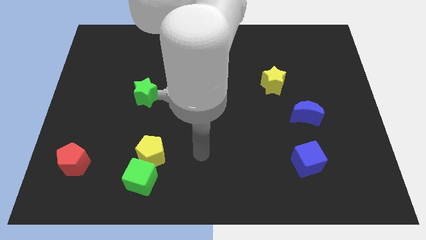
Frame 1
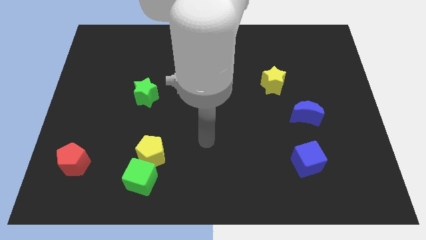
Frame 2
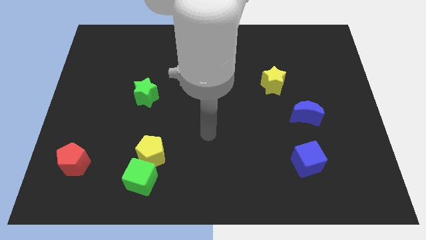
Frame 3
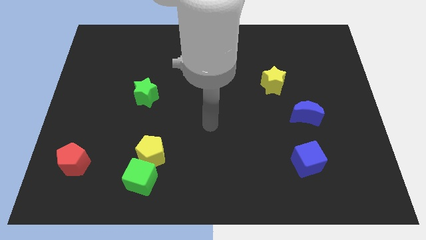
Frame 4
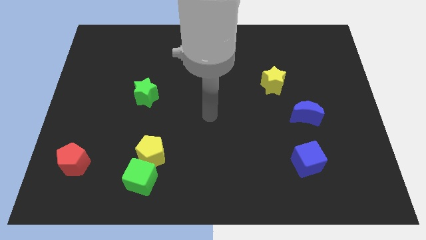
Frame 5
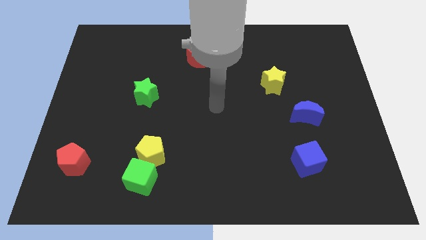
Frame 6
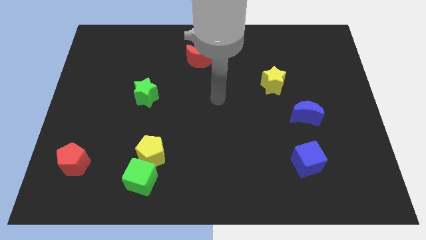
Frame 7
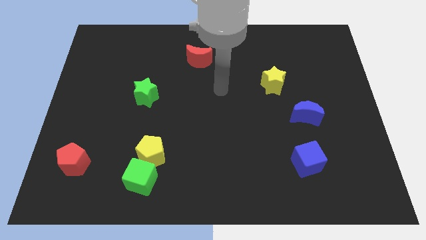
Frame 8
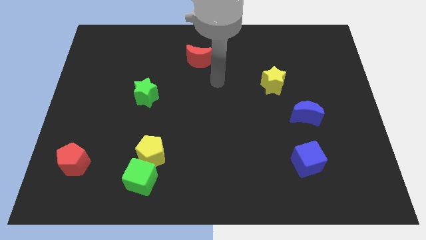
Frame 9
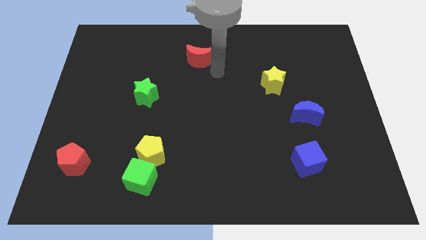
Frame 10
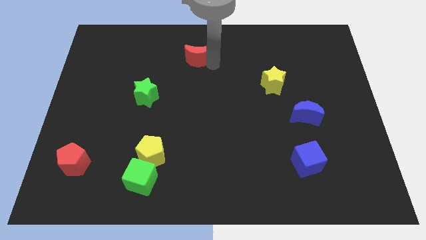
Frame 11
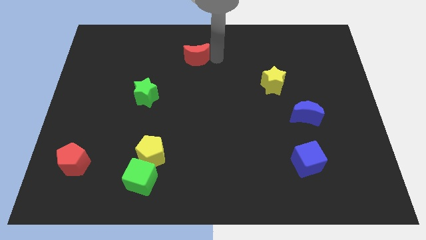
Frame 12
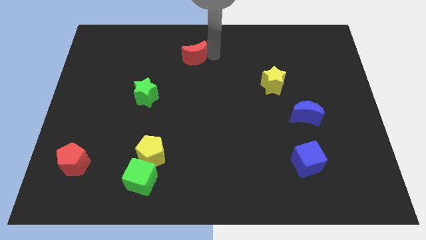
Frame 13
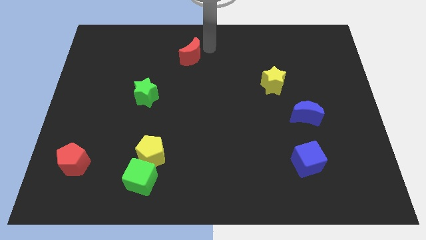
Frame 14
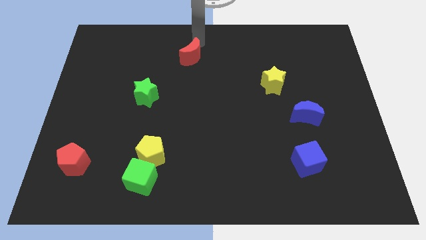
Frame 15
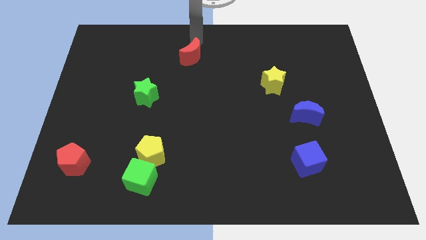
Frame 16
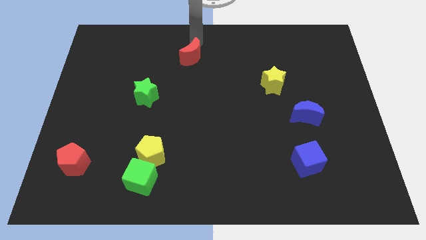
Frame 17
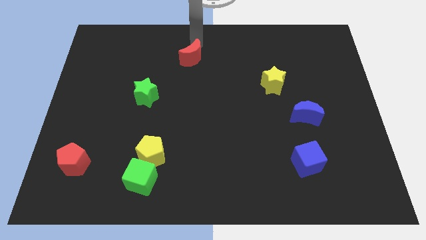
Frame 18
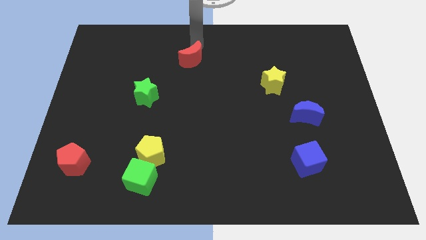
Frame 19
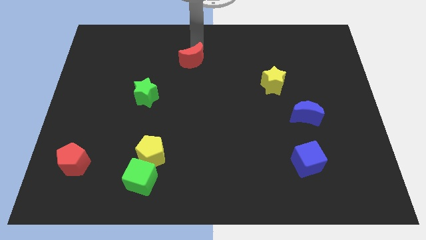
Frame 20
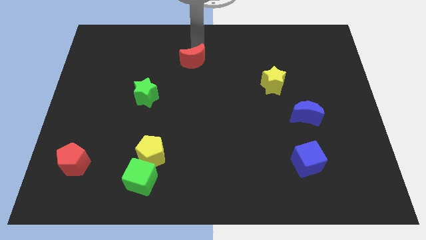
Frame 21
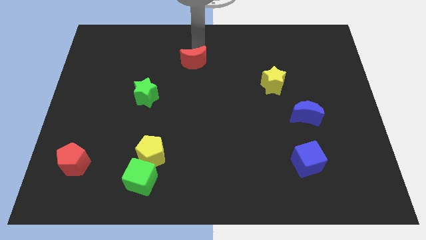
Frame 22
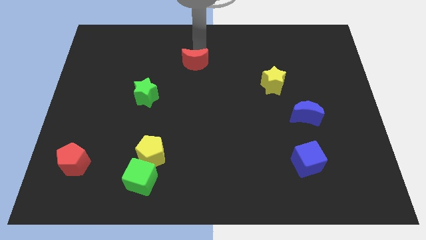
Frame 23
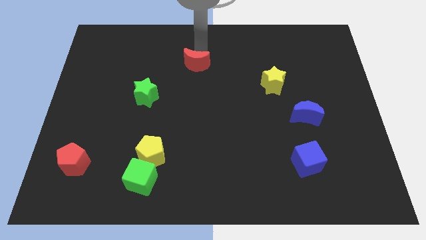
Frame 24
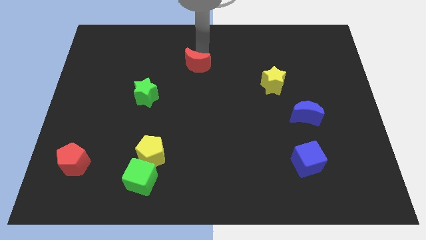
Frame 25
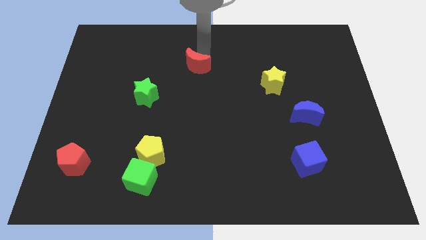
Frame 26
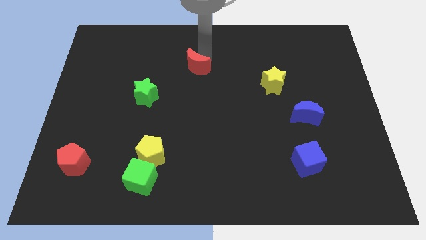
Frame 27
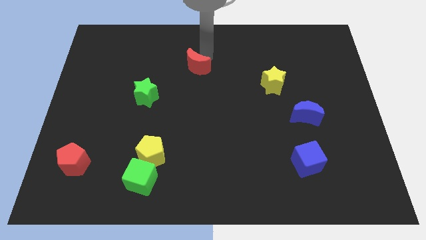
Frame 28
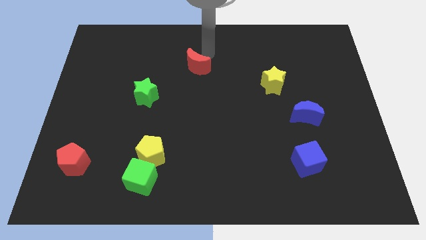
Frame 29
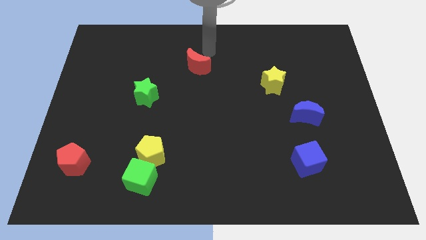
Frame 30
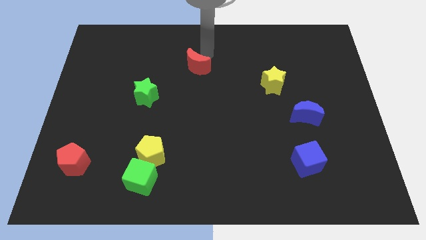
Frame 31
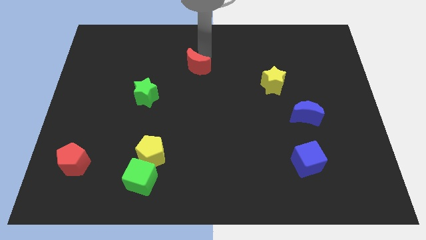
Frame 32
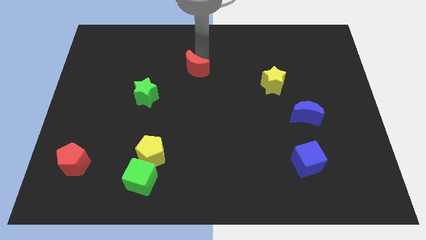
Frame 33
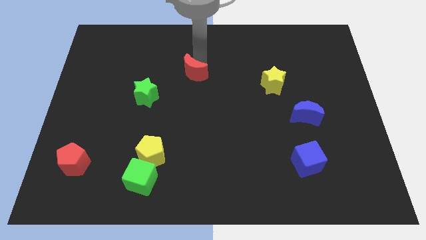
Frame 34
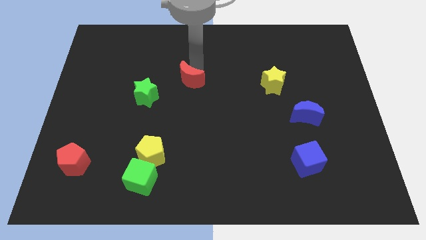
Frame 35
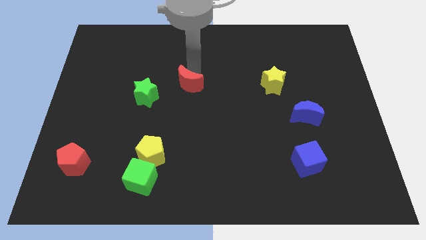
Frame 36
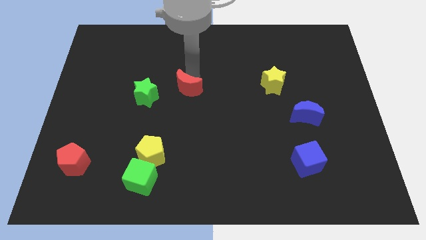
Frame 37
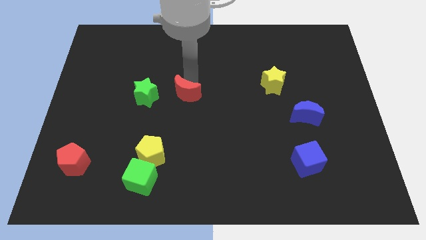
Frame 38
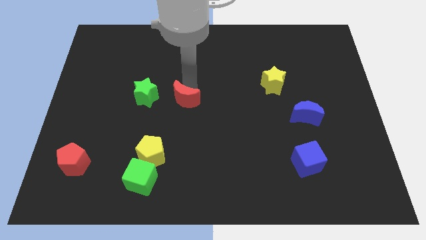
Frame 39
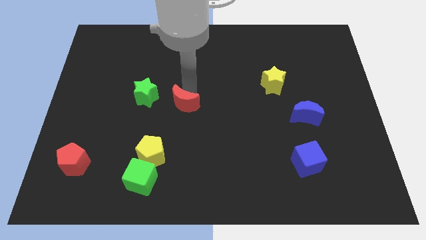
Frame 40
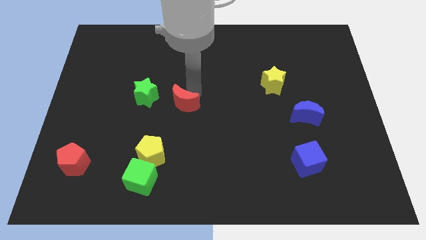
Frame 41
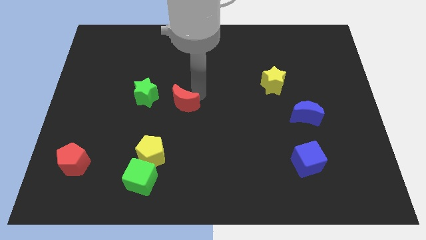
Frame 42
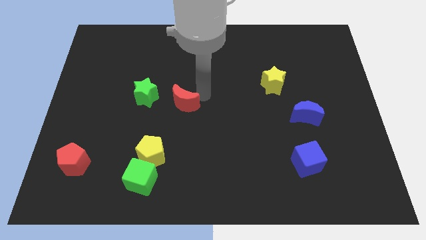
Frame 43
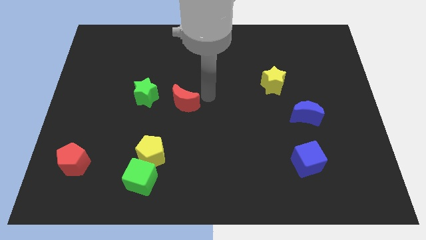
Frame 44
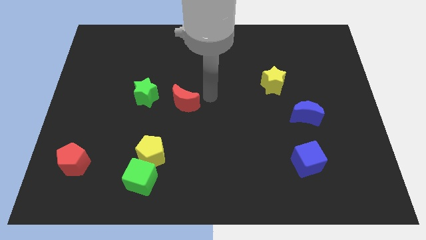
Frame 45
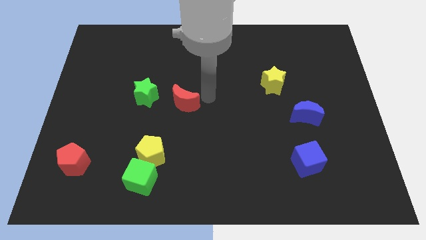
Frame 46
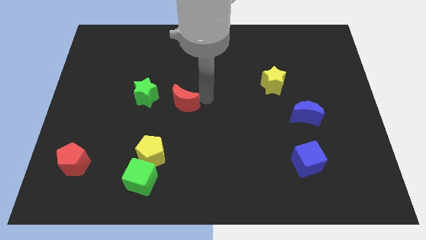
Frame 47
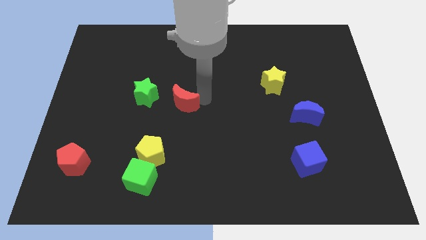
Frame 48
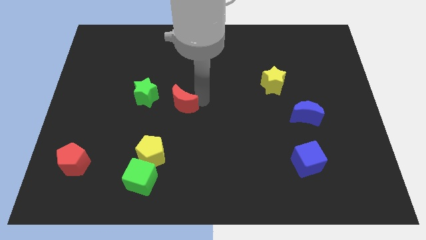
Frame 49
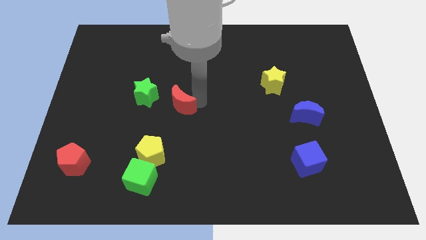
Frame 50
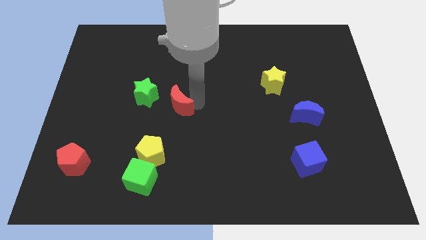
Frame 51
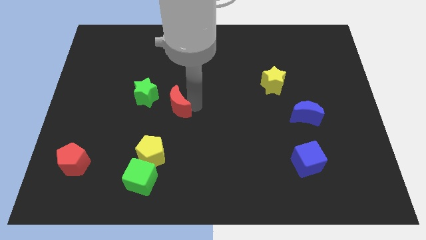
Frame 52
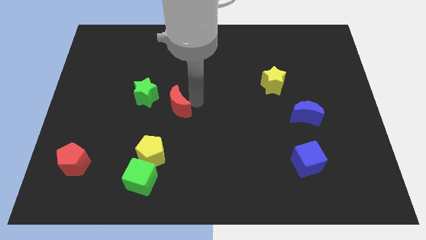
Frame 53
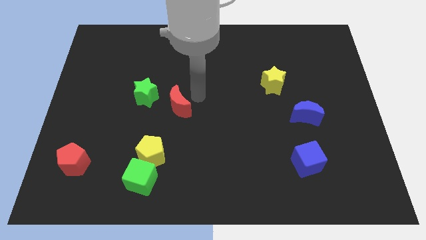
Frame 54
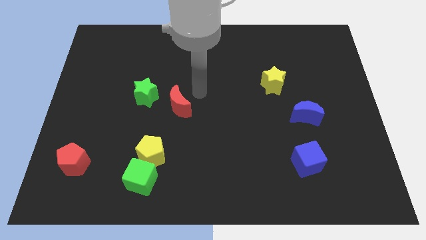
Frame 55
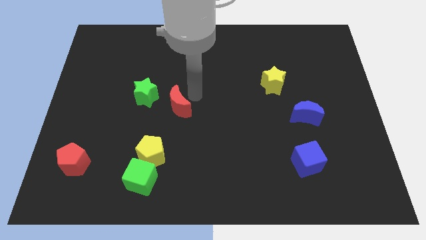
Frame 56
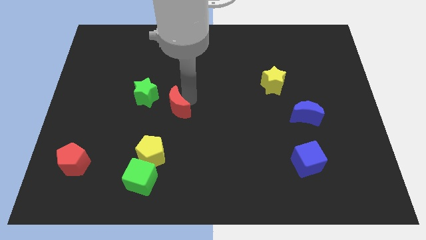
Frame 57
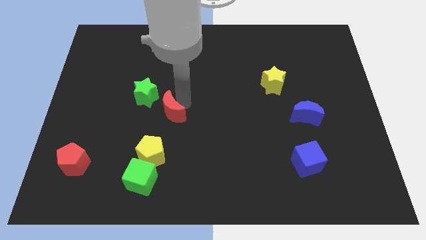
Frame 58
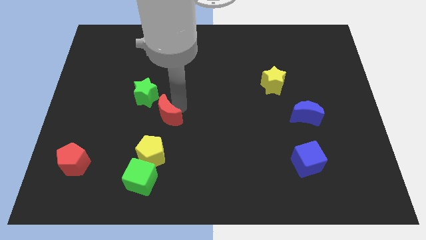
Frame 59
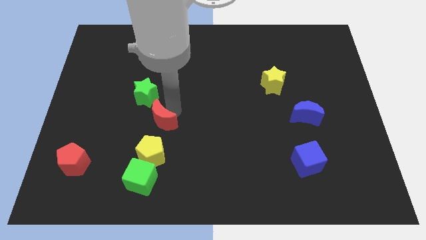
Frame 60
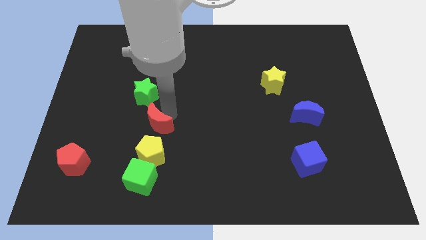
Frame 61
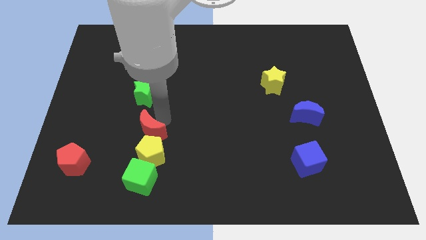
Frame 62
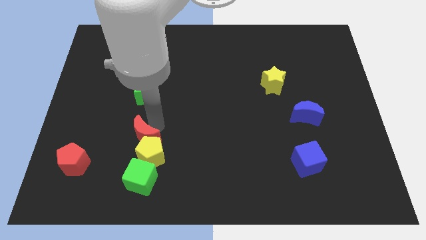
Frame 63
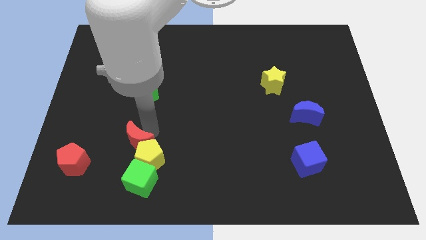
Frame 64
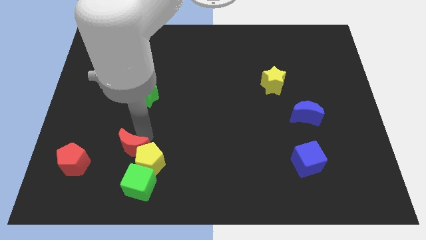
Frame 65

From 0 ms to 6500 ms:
push the red moon diagonally up and to the left of the green cube
